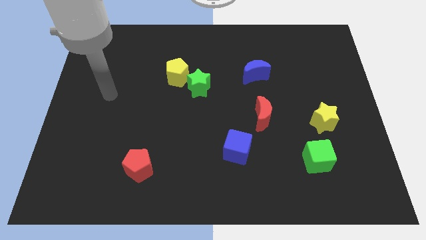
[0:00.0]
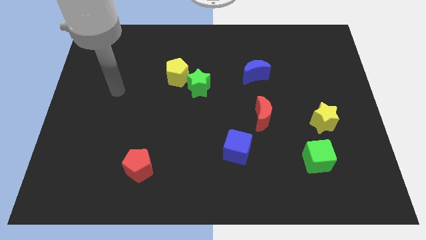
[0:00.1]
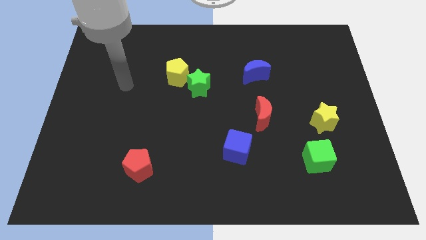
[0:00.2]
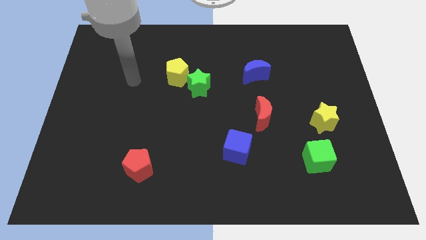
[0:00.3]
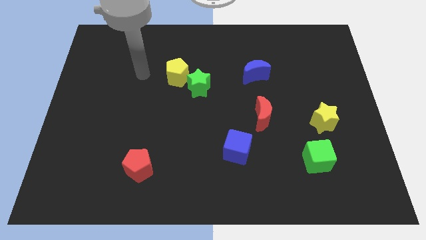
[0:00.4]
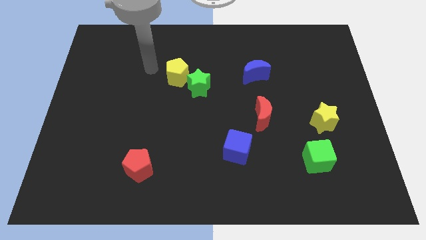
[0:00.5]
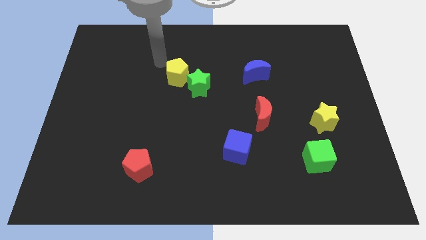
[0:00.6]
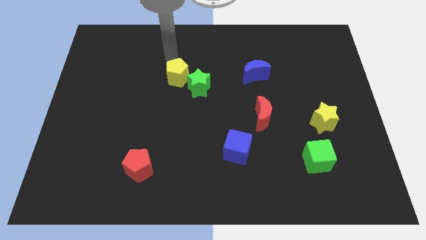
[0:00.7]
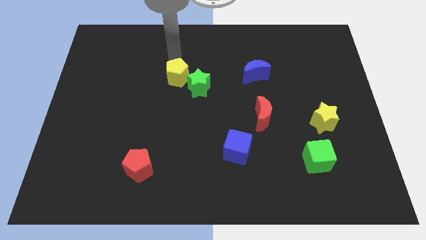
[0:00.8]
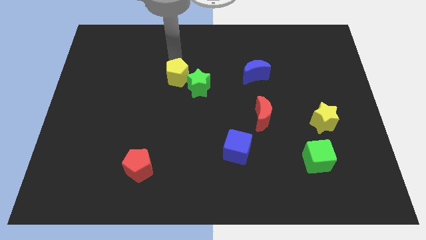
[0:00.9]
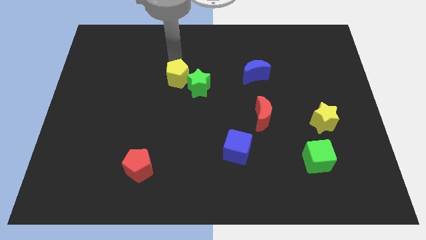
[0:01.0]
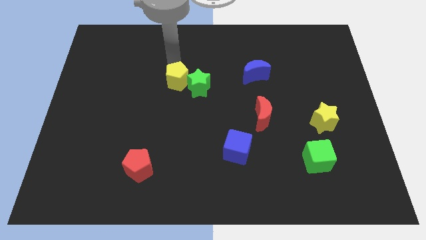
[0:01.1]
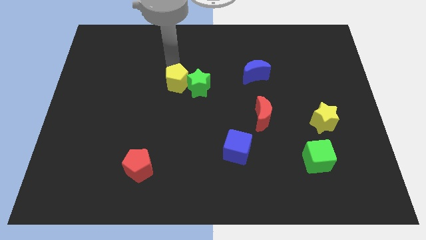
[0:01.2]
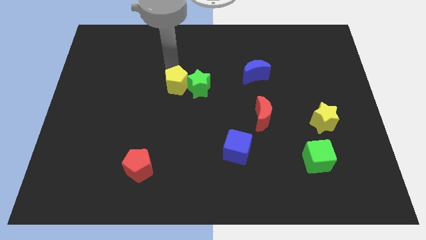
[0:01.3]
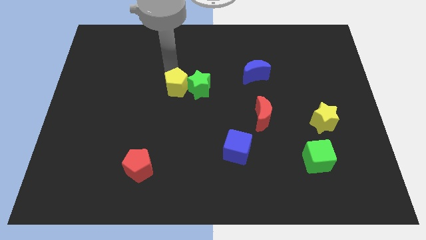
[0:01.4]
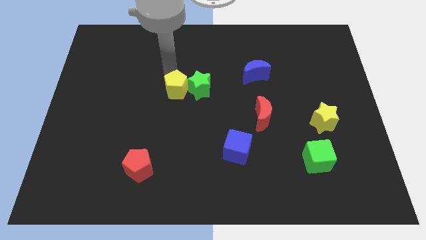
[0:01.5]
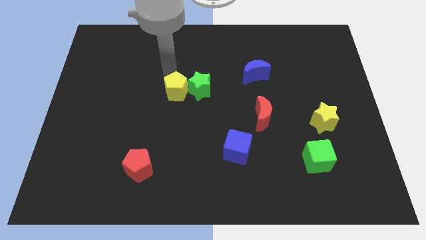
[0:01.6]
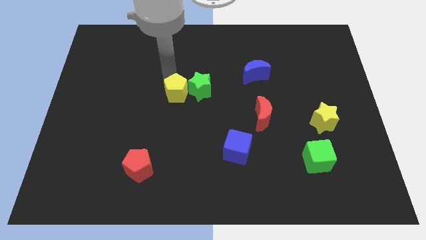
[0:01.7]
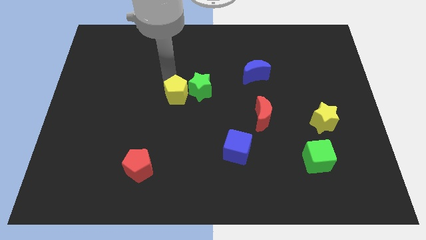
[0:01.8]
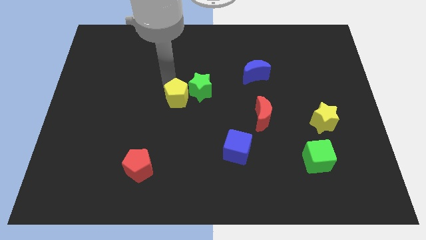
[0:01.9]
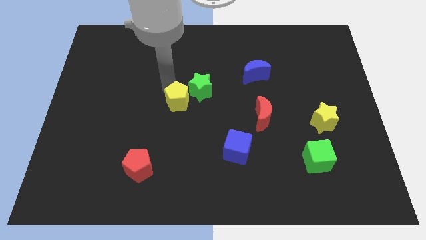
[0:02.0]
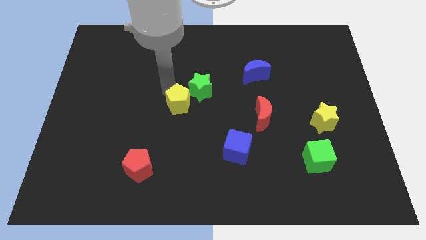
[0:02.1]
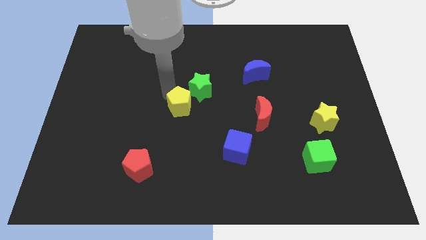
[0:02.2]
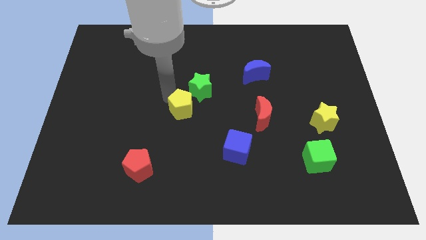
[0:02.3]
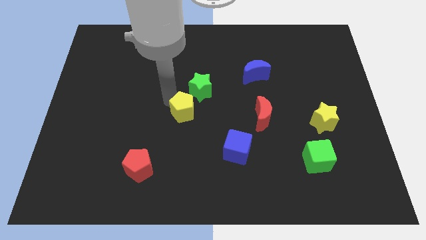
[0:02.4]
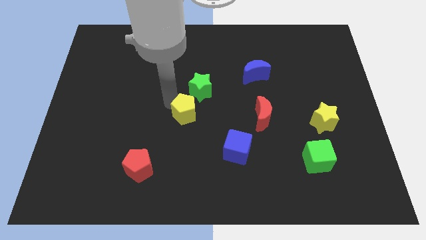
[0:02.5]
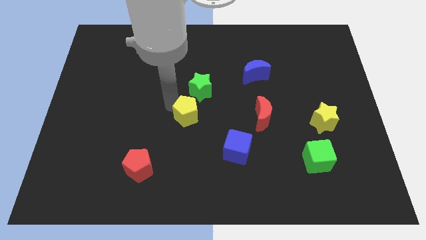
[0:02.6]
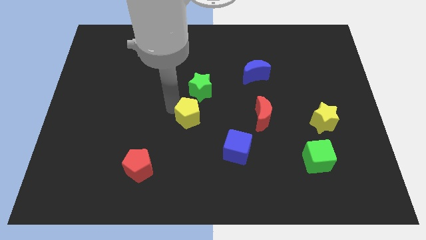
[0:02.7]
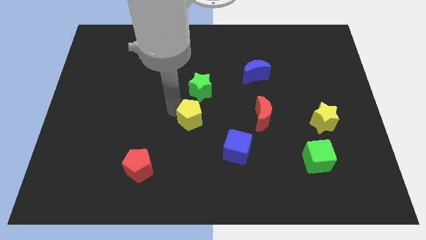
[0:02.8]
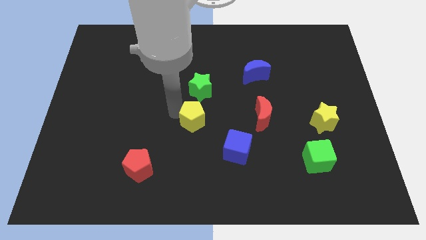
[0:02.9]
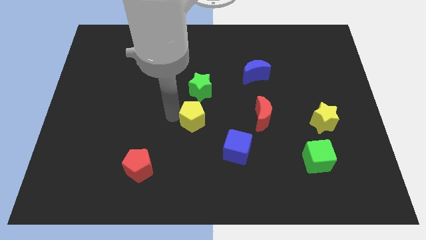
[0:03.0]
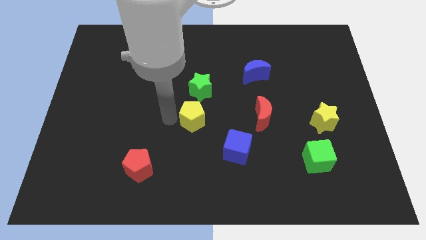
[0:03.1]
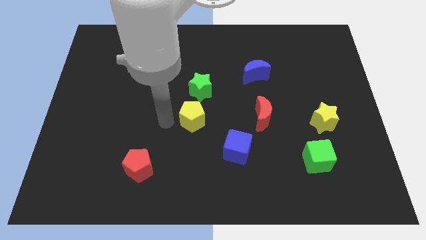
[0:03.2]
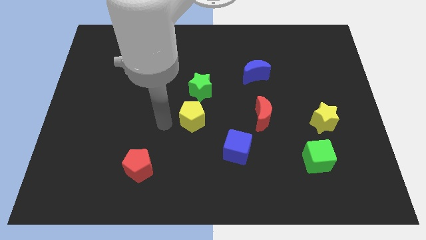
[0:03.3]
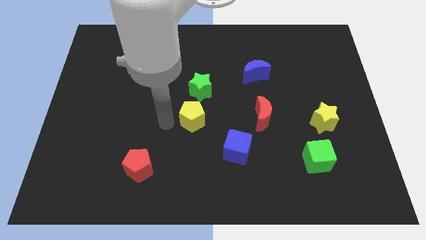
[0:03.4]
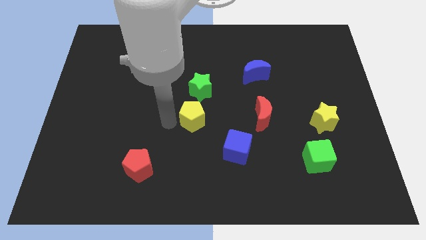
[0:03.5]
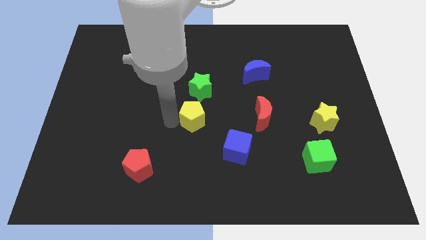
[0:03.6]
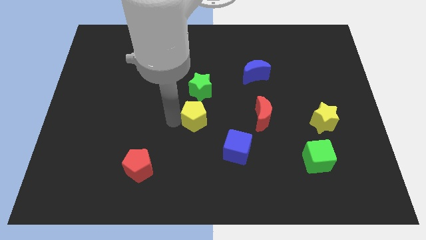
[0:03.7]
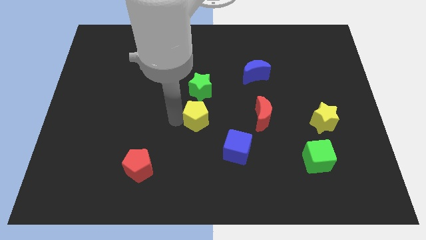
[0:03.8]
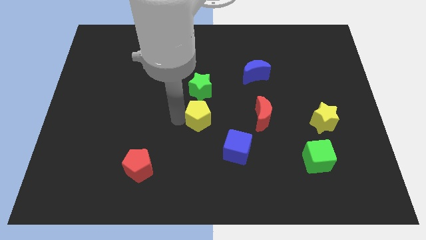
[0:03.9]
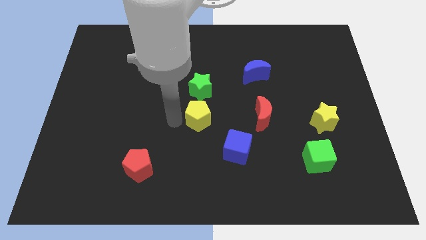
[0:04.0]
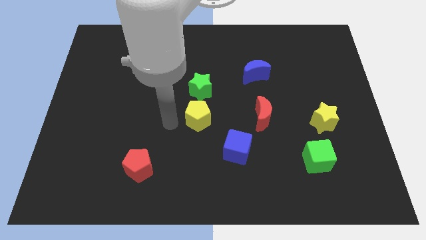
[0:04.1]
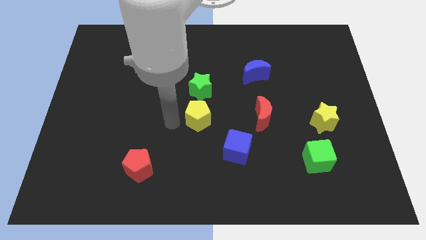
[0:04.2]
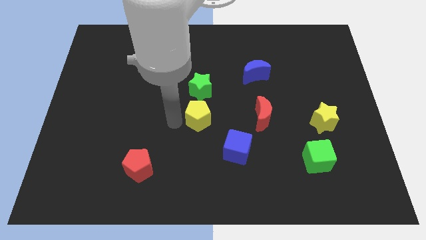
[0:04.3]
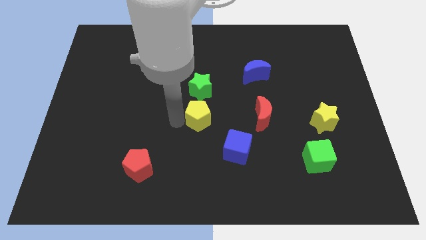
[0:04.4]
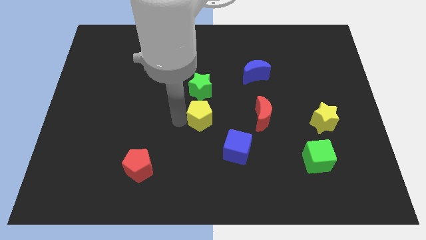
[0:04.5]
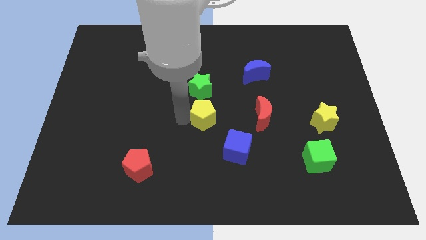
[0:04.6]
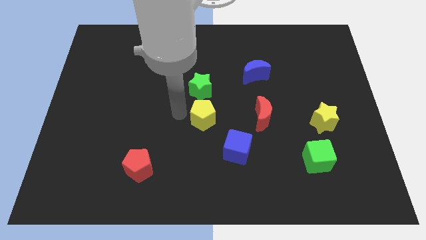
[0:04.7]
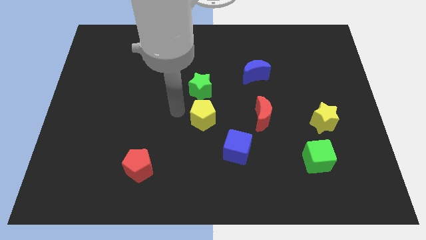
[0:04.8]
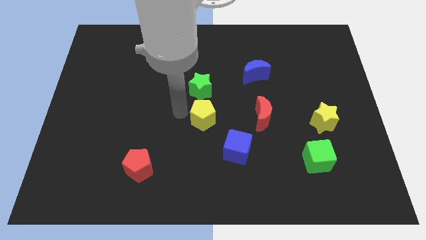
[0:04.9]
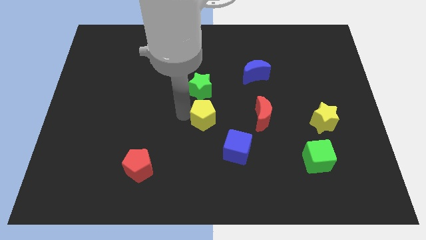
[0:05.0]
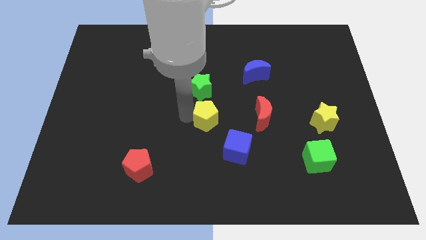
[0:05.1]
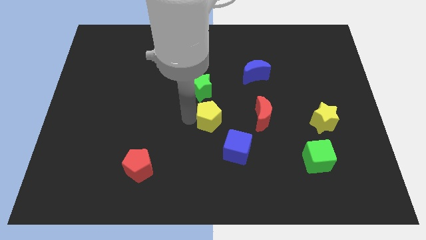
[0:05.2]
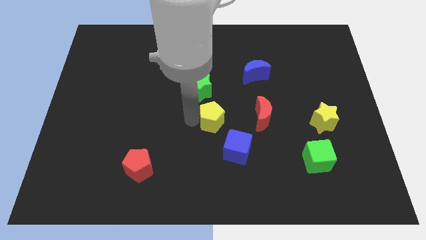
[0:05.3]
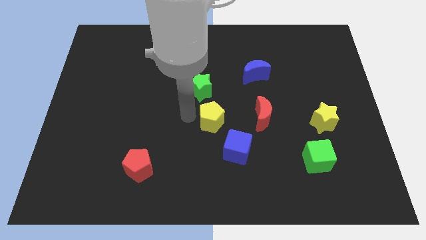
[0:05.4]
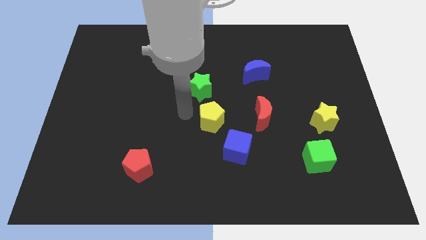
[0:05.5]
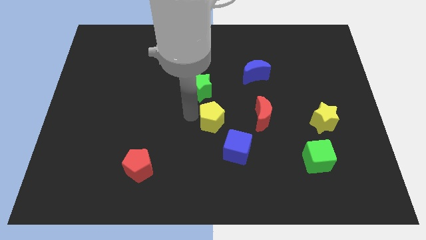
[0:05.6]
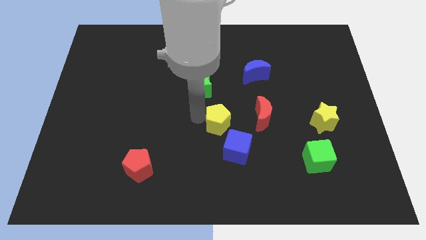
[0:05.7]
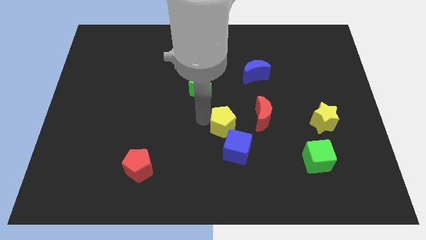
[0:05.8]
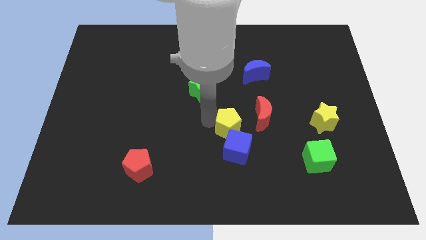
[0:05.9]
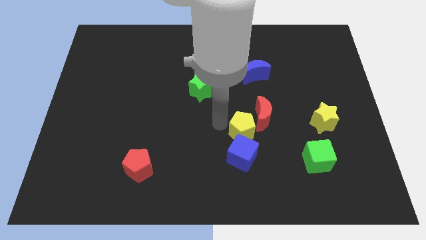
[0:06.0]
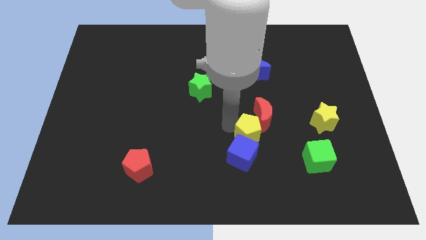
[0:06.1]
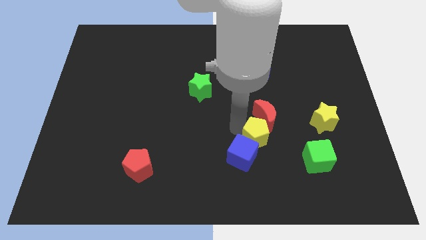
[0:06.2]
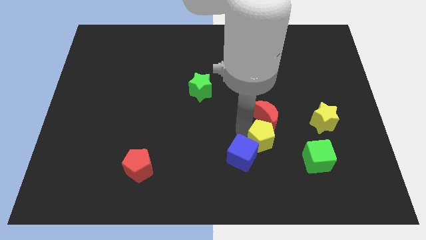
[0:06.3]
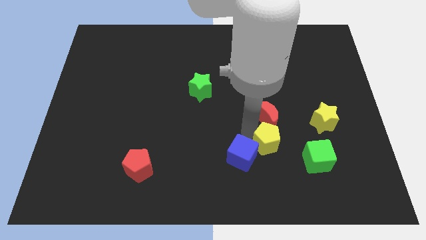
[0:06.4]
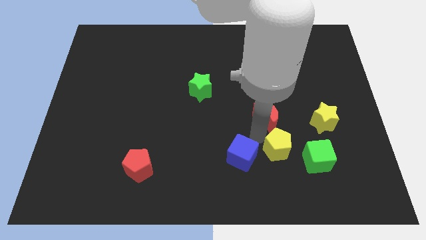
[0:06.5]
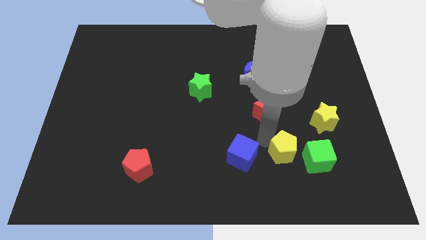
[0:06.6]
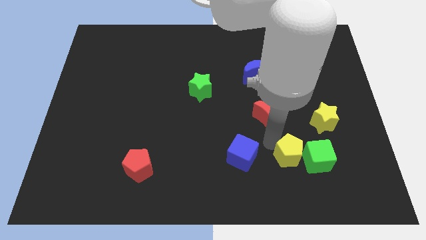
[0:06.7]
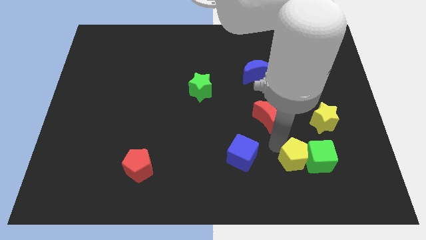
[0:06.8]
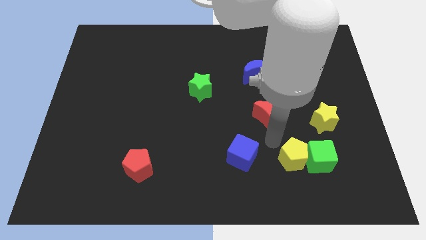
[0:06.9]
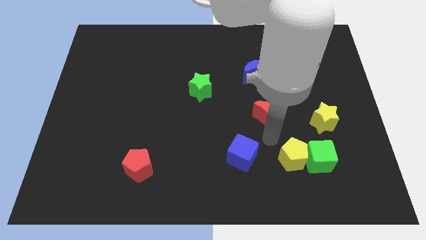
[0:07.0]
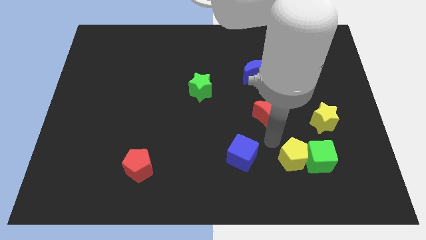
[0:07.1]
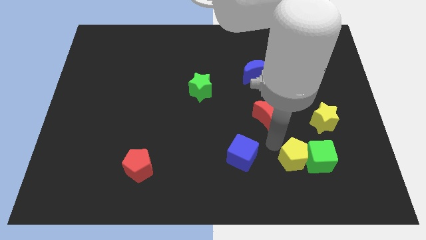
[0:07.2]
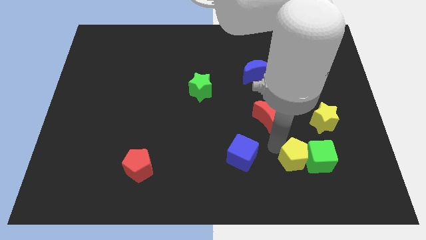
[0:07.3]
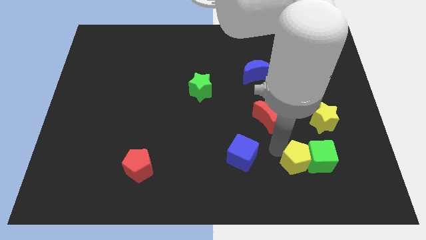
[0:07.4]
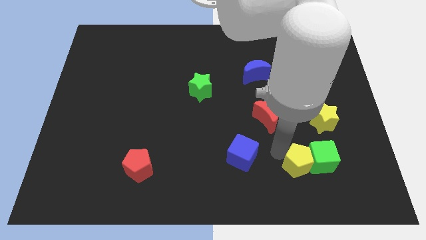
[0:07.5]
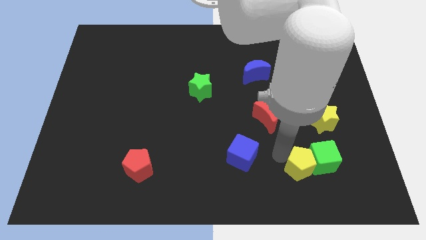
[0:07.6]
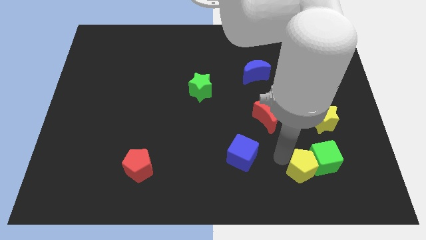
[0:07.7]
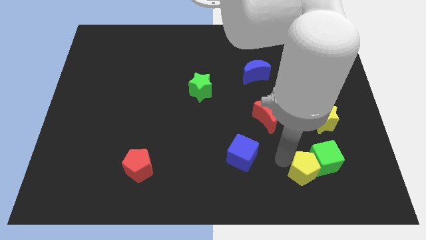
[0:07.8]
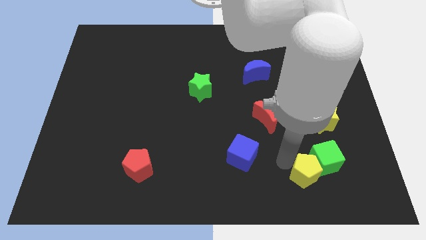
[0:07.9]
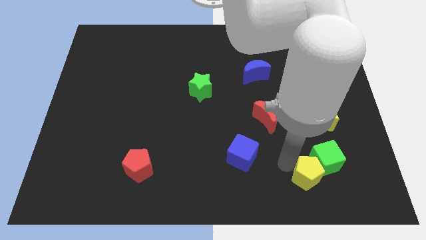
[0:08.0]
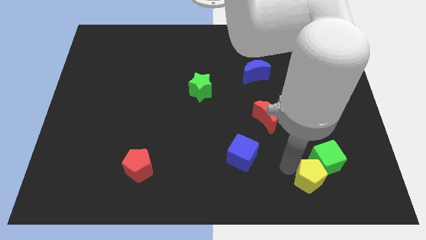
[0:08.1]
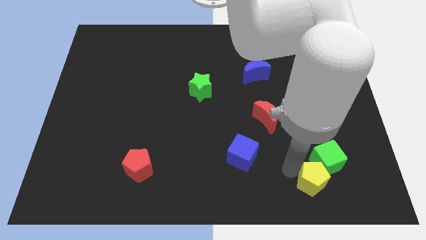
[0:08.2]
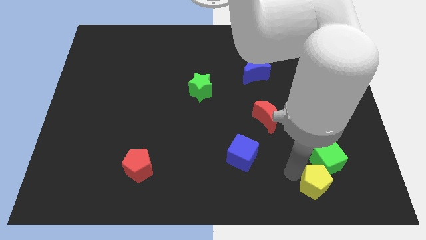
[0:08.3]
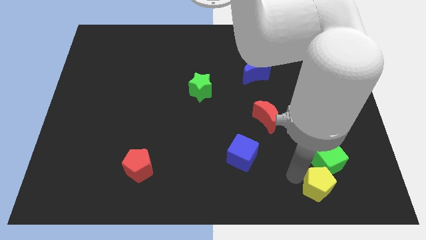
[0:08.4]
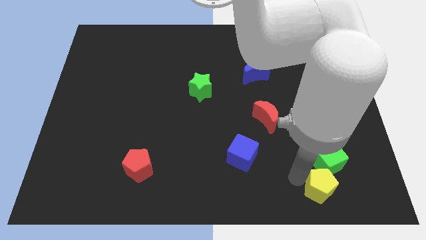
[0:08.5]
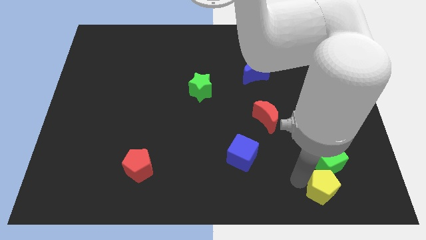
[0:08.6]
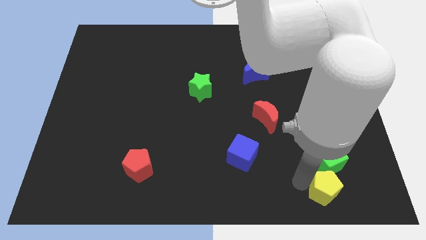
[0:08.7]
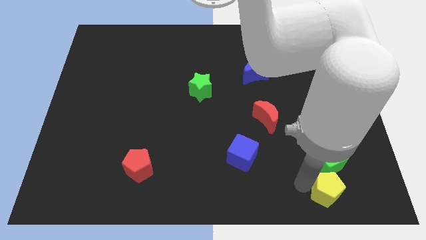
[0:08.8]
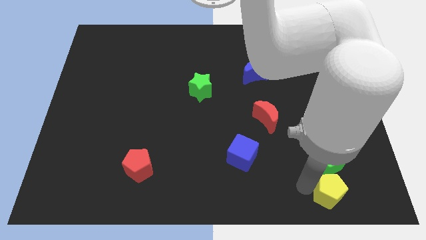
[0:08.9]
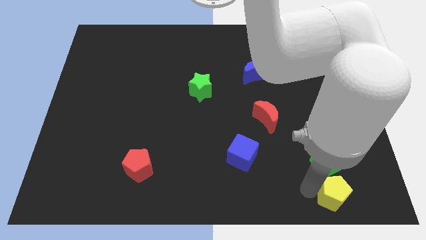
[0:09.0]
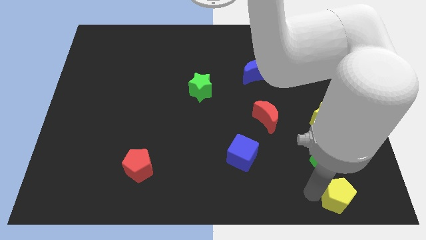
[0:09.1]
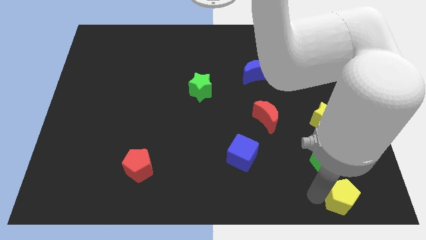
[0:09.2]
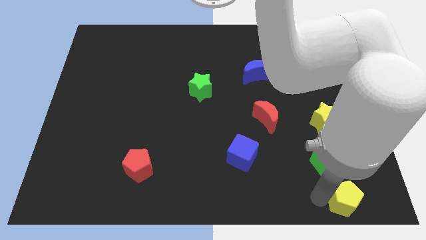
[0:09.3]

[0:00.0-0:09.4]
push the yellow pentagon to the bottom right of the board
